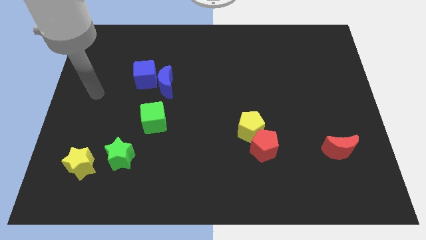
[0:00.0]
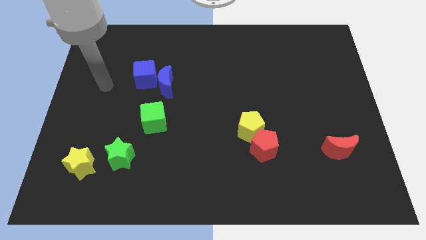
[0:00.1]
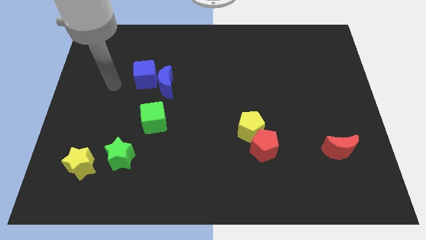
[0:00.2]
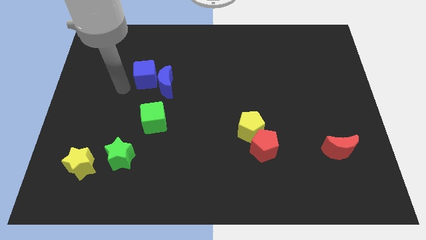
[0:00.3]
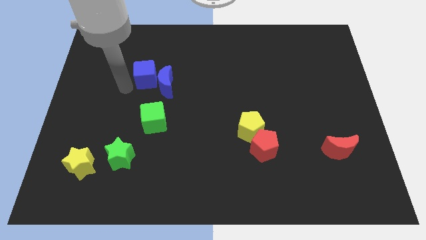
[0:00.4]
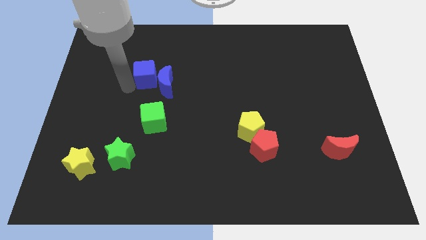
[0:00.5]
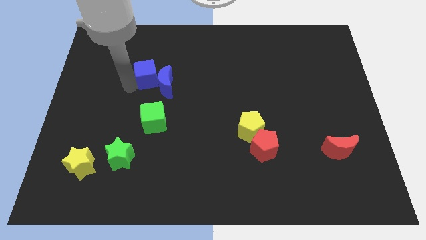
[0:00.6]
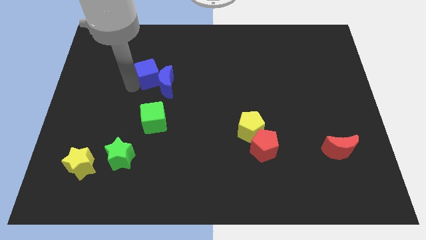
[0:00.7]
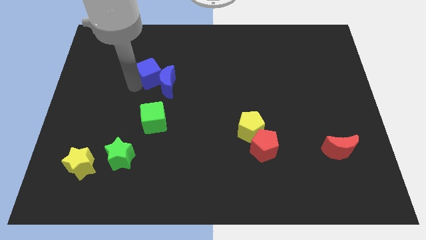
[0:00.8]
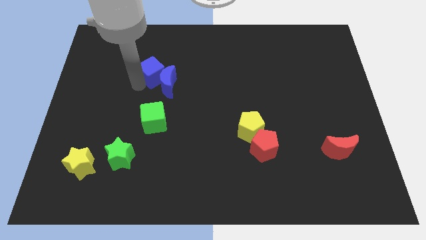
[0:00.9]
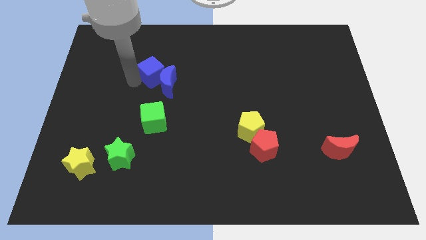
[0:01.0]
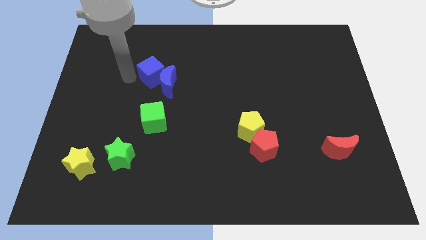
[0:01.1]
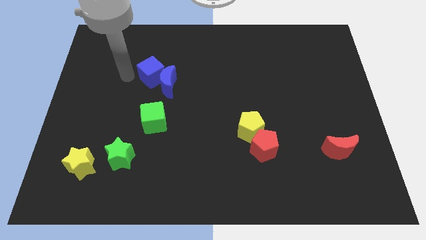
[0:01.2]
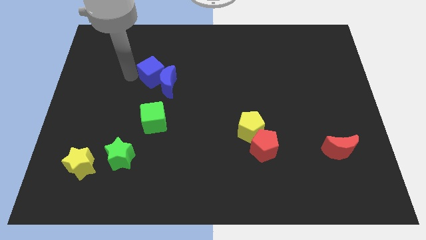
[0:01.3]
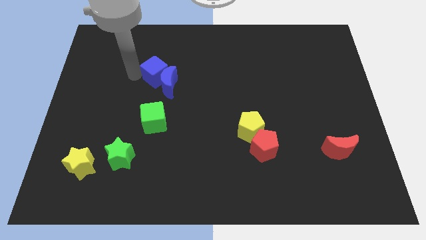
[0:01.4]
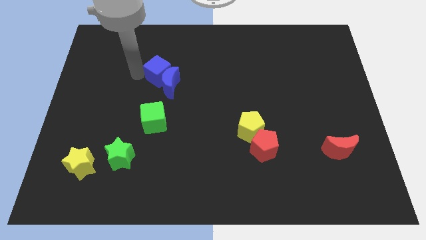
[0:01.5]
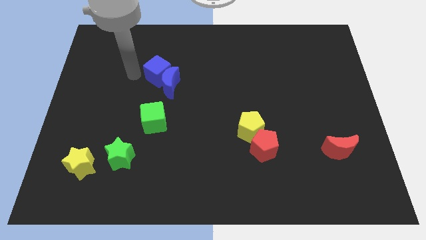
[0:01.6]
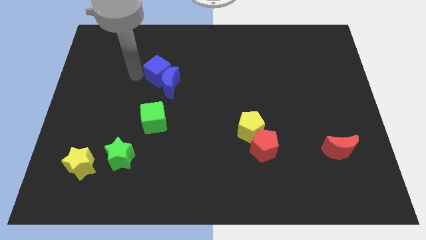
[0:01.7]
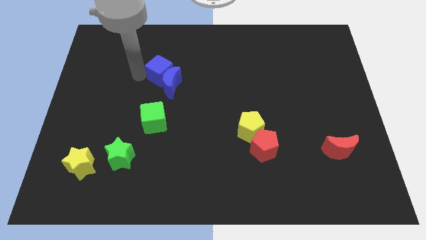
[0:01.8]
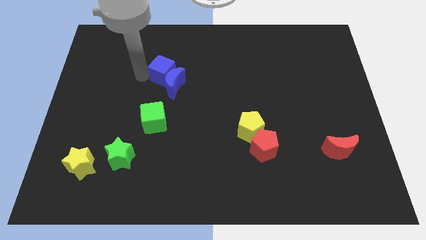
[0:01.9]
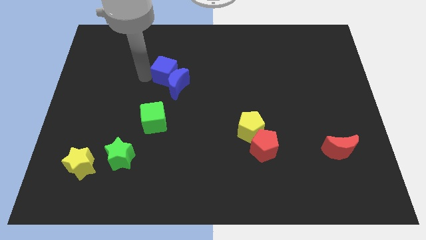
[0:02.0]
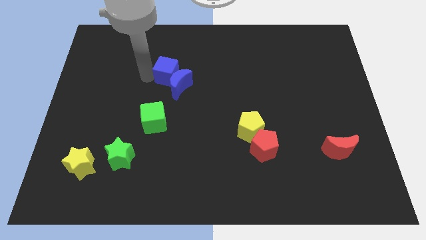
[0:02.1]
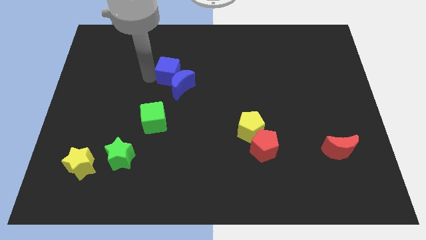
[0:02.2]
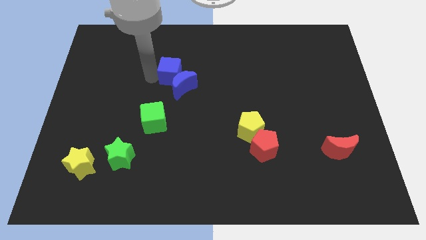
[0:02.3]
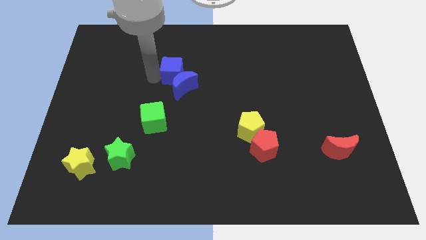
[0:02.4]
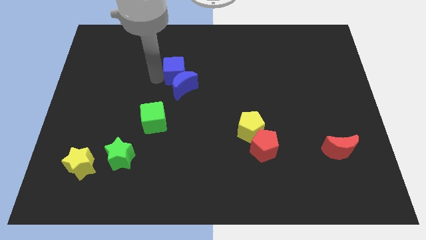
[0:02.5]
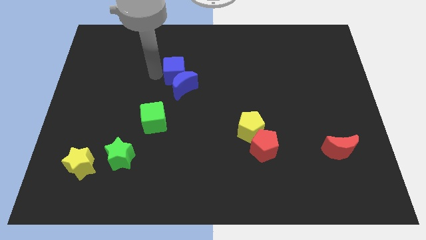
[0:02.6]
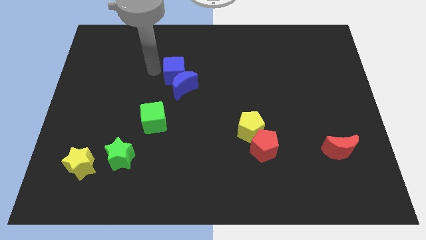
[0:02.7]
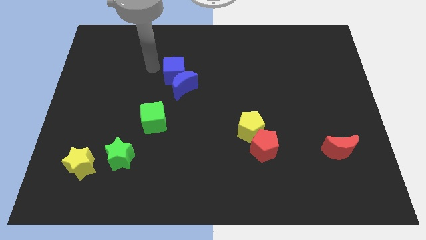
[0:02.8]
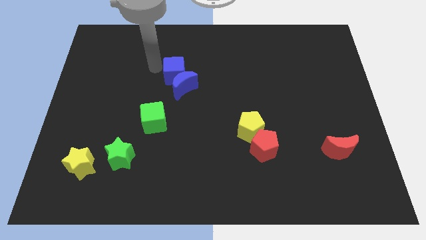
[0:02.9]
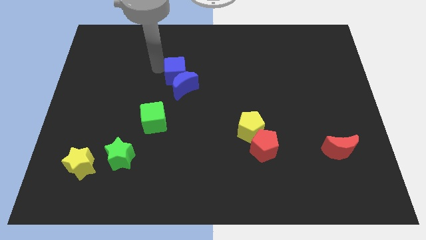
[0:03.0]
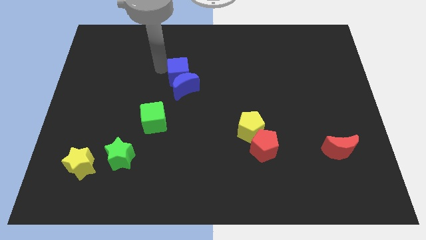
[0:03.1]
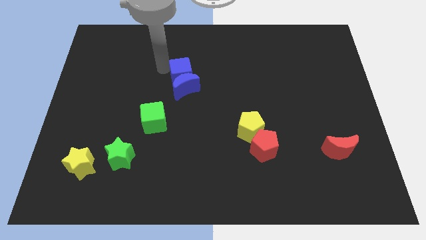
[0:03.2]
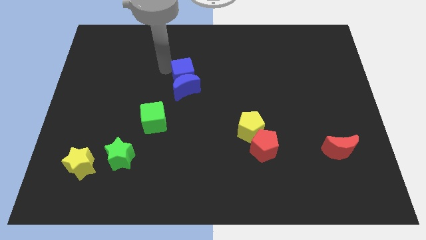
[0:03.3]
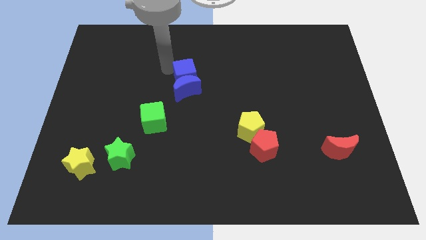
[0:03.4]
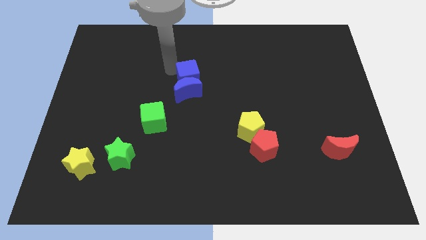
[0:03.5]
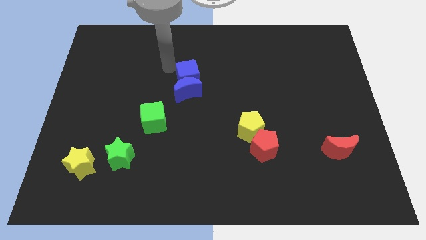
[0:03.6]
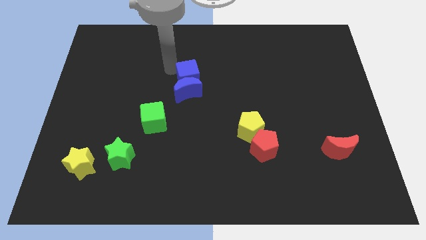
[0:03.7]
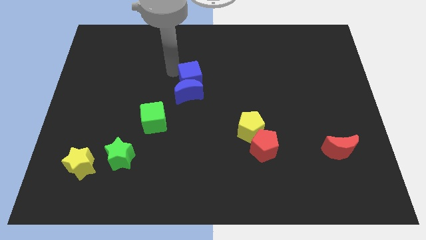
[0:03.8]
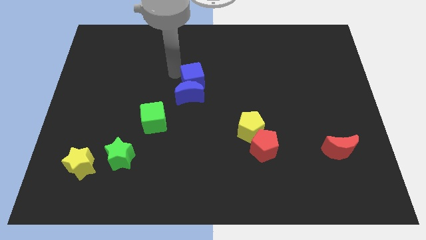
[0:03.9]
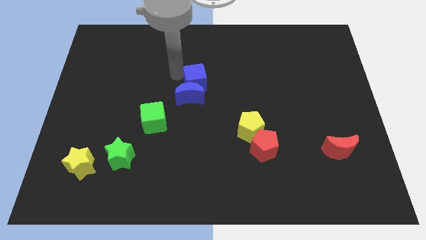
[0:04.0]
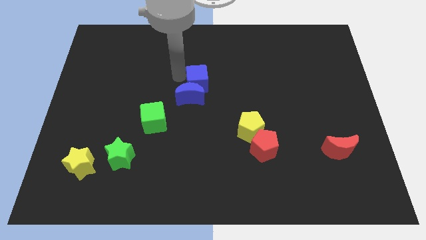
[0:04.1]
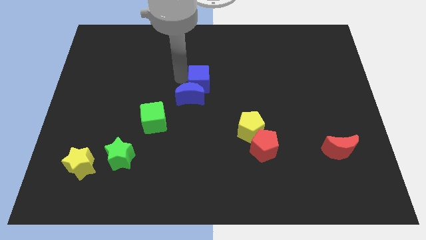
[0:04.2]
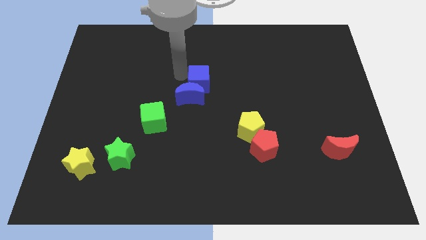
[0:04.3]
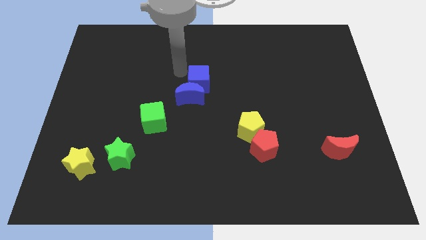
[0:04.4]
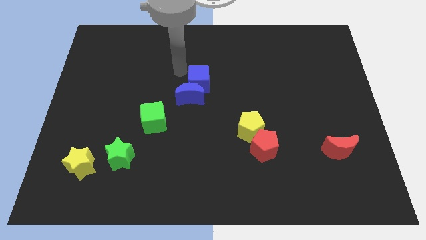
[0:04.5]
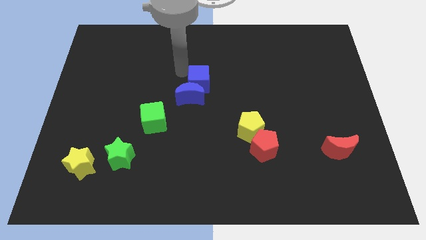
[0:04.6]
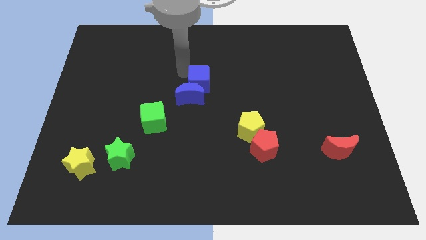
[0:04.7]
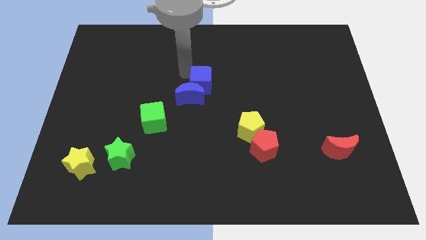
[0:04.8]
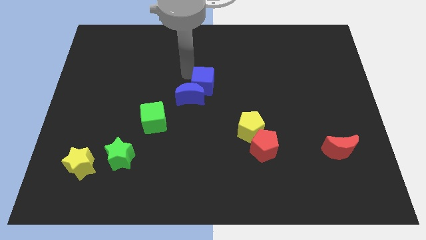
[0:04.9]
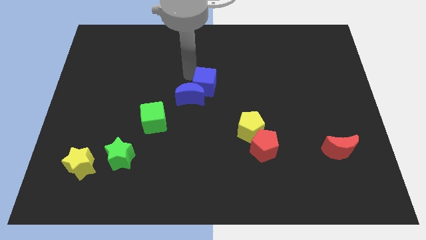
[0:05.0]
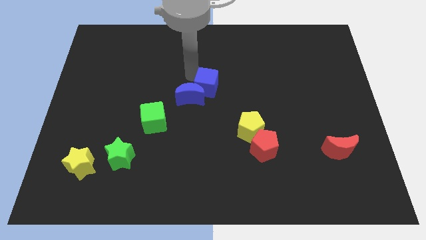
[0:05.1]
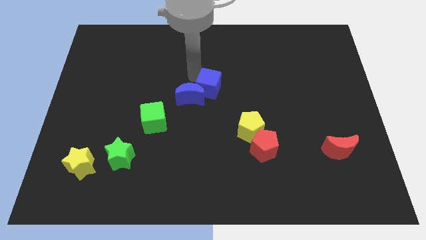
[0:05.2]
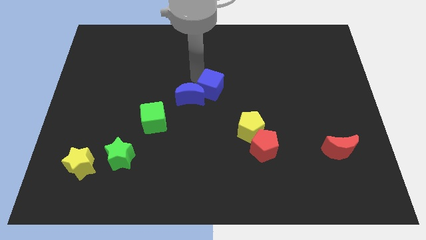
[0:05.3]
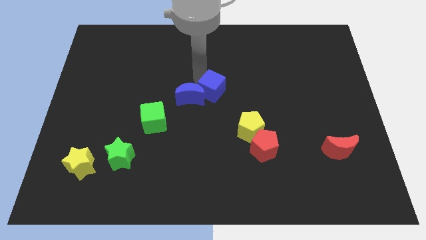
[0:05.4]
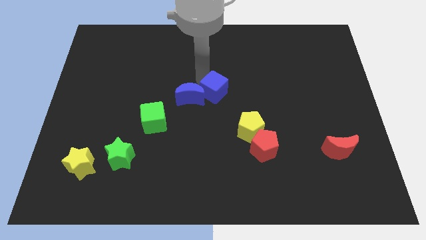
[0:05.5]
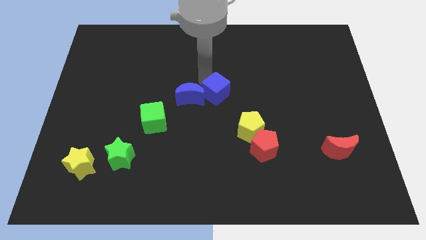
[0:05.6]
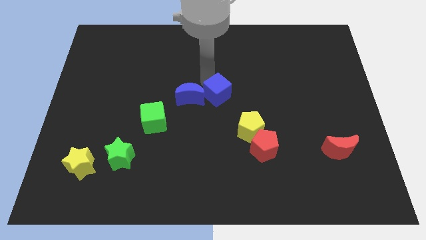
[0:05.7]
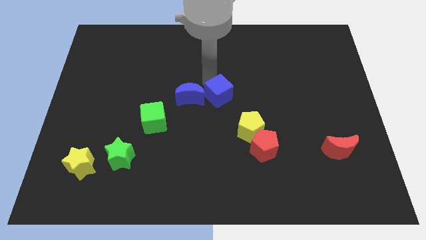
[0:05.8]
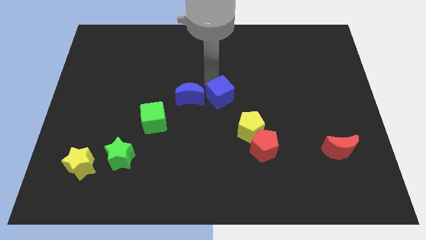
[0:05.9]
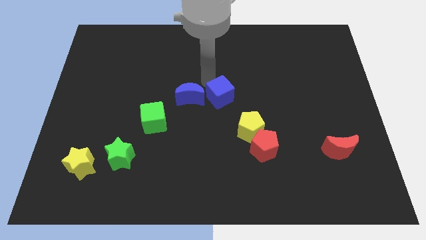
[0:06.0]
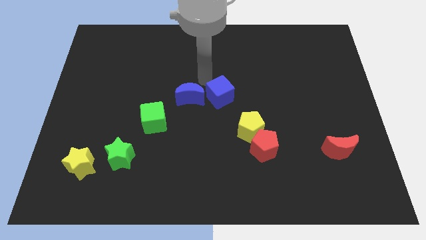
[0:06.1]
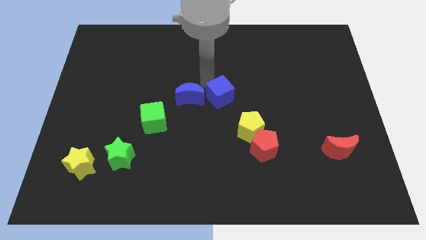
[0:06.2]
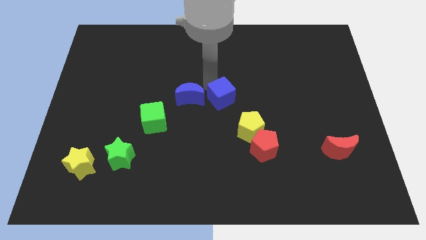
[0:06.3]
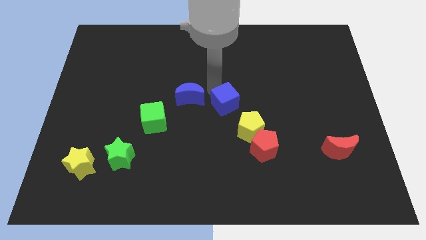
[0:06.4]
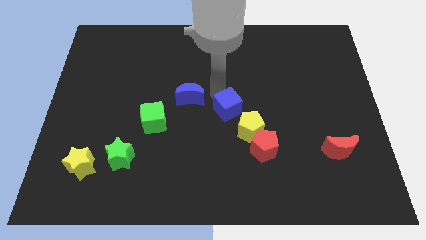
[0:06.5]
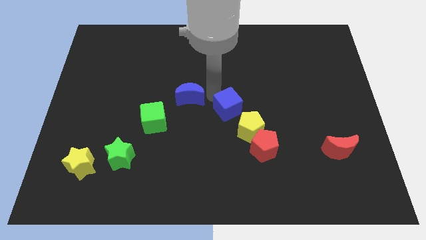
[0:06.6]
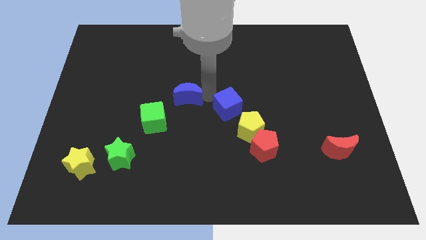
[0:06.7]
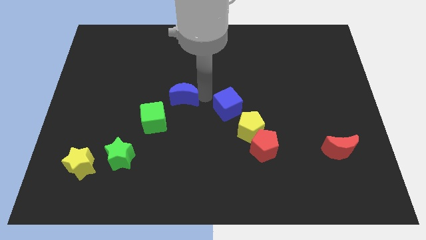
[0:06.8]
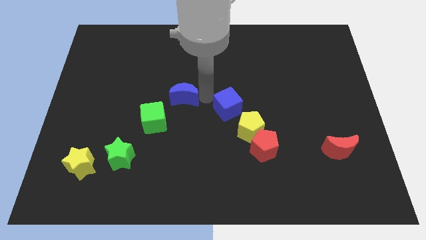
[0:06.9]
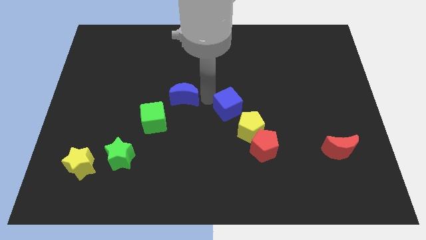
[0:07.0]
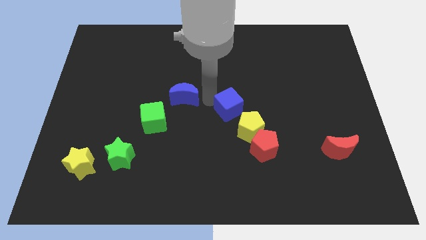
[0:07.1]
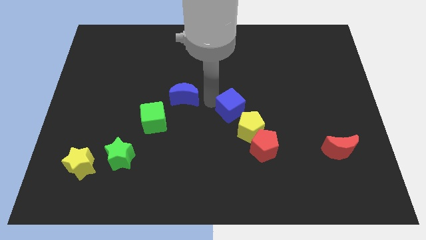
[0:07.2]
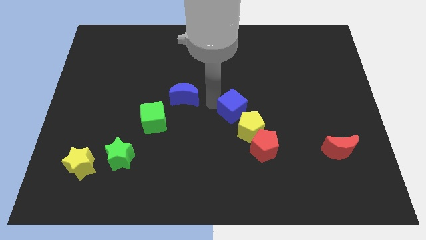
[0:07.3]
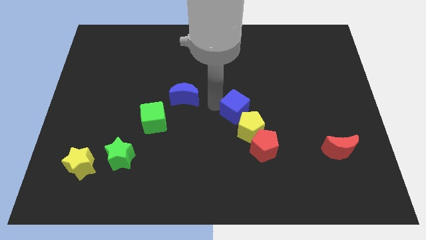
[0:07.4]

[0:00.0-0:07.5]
move the blue cube to the yellow pentagon
